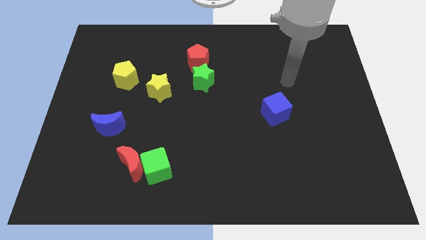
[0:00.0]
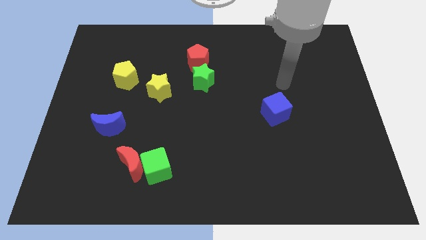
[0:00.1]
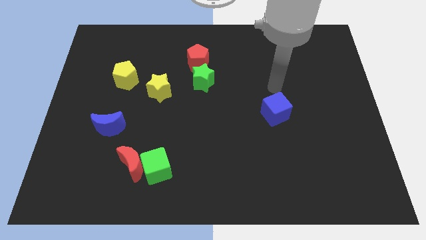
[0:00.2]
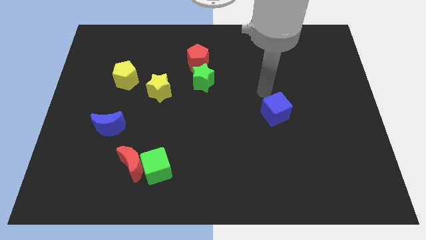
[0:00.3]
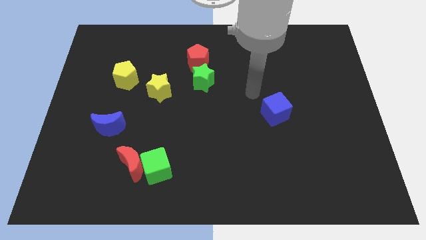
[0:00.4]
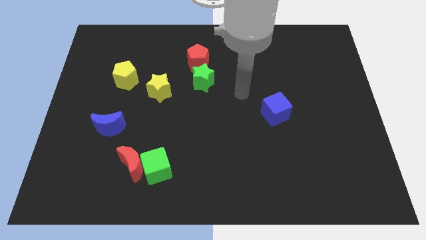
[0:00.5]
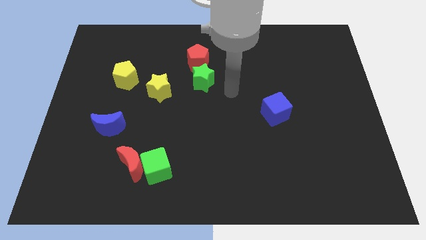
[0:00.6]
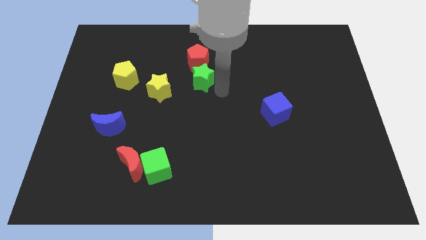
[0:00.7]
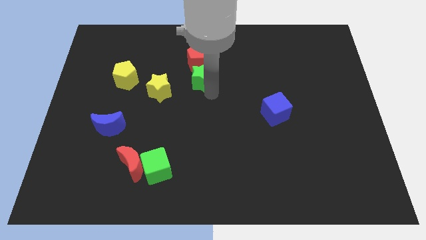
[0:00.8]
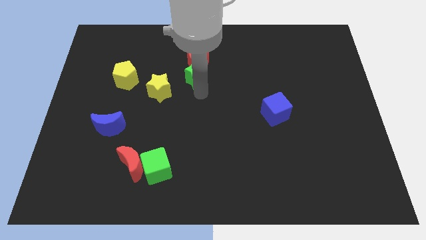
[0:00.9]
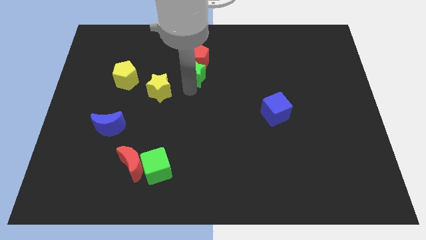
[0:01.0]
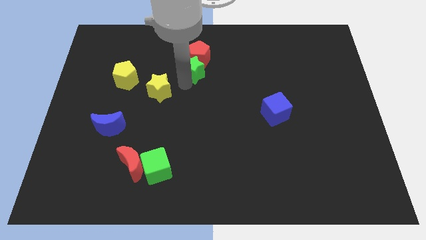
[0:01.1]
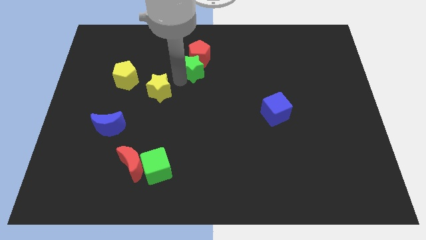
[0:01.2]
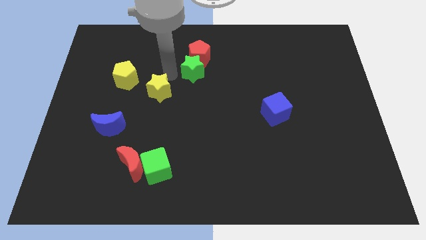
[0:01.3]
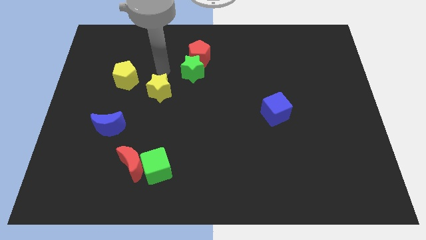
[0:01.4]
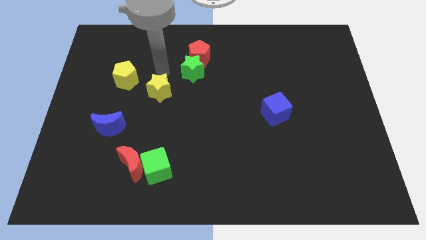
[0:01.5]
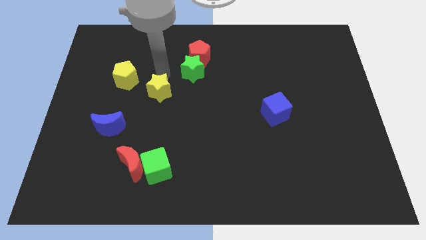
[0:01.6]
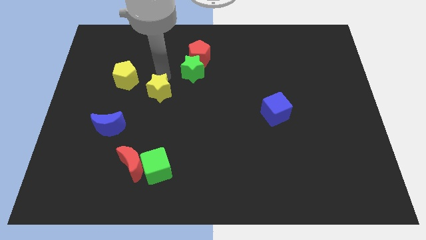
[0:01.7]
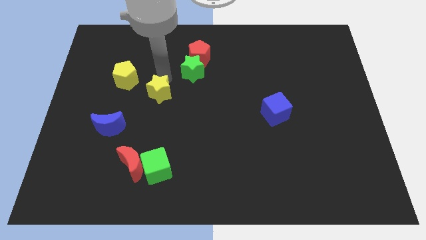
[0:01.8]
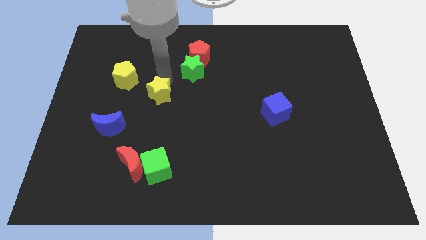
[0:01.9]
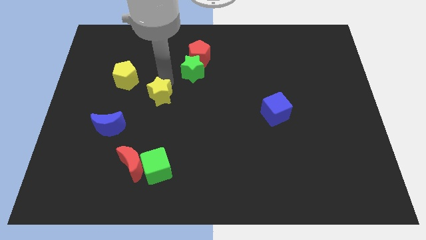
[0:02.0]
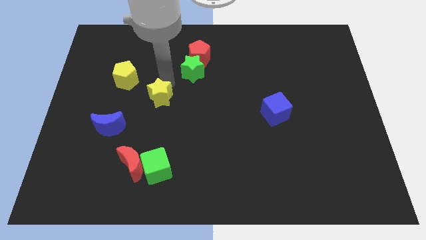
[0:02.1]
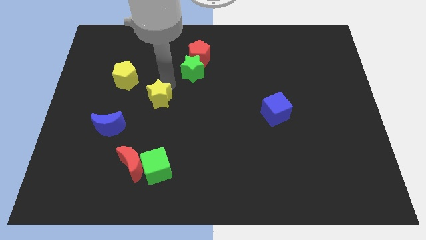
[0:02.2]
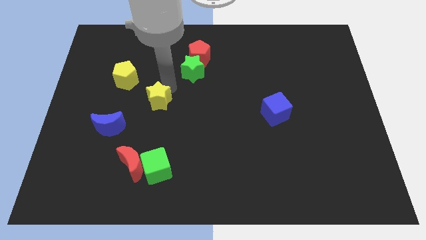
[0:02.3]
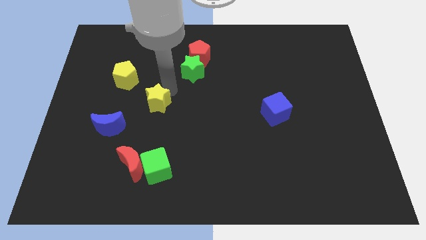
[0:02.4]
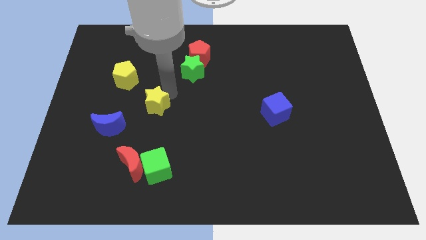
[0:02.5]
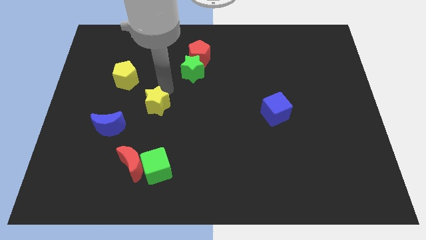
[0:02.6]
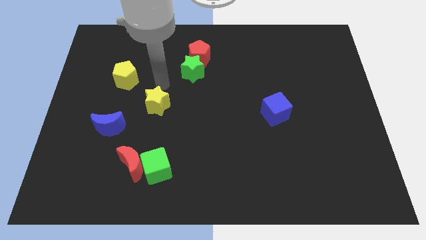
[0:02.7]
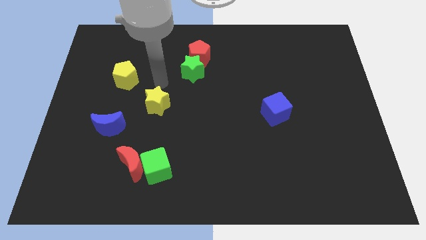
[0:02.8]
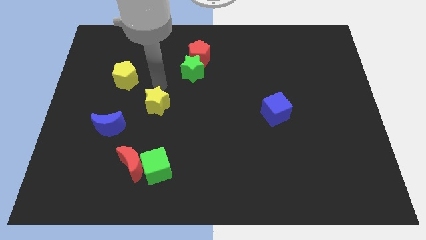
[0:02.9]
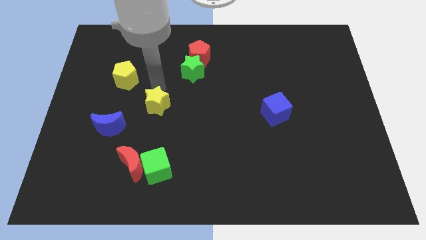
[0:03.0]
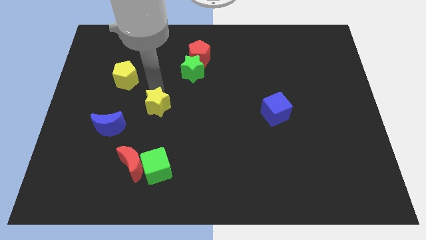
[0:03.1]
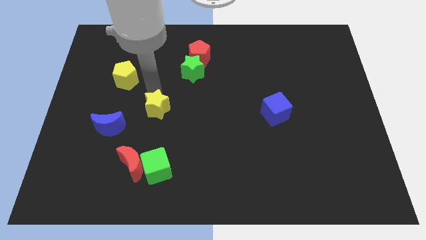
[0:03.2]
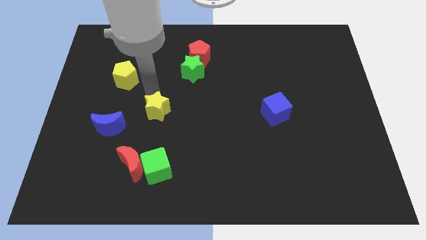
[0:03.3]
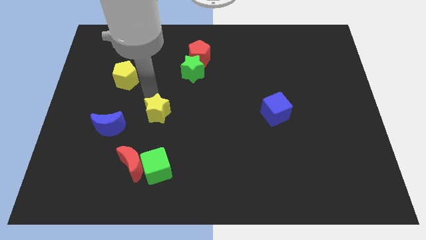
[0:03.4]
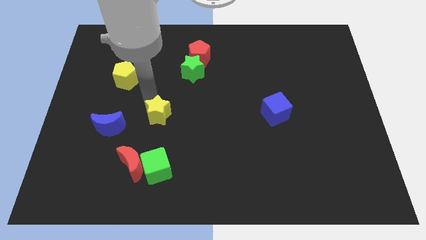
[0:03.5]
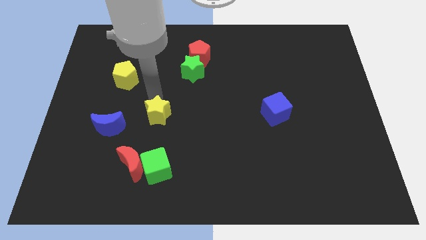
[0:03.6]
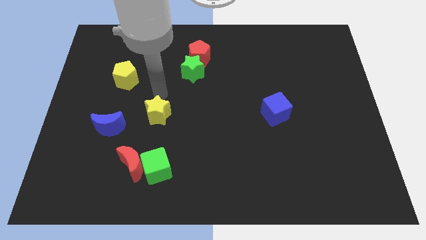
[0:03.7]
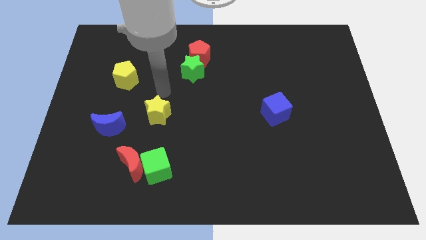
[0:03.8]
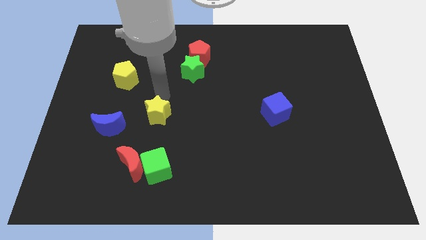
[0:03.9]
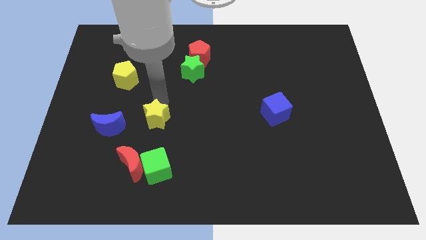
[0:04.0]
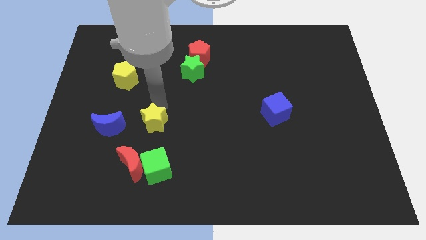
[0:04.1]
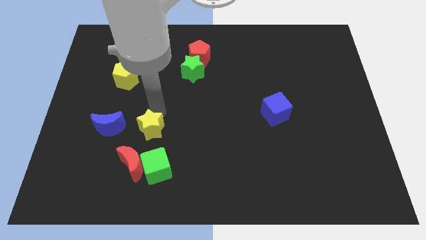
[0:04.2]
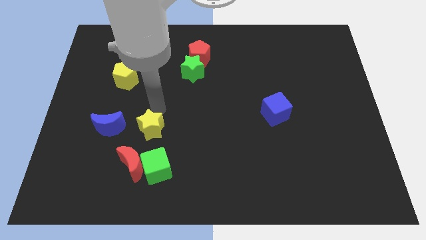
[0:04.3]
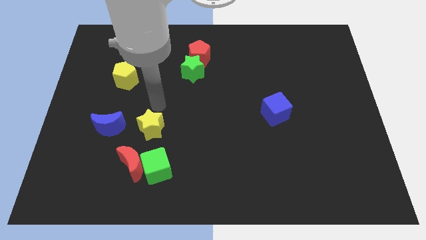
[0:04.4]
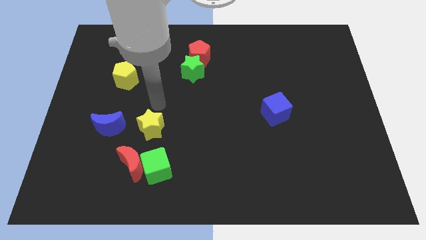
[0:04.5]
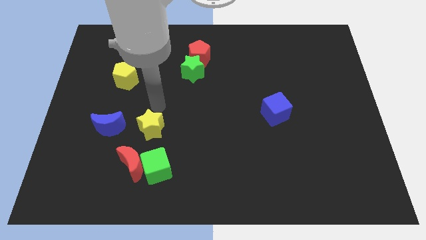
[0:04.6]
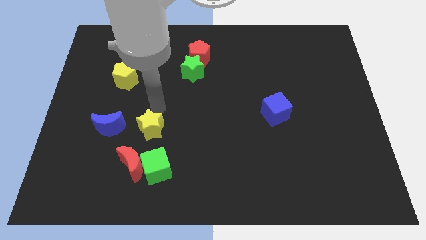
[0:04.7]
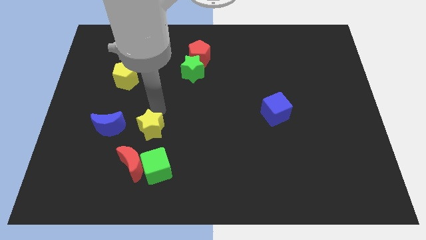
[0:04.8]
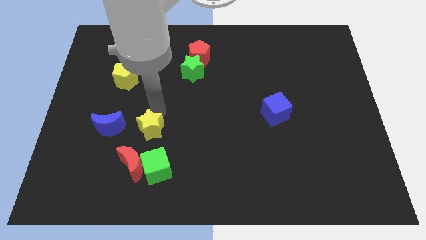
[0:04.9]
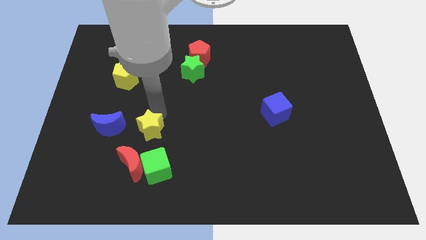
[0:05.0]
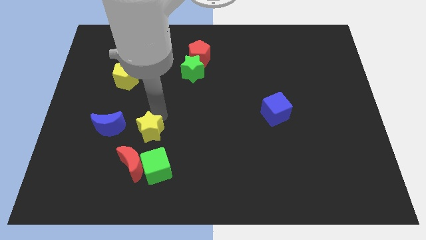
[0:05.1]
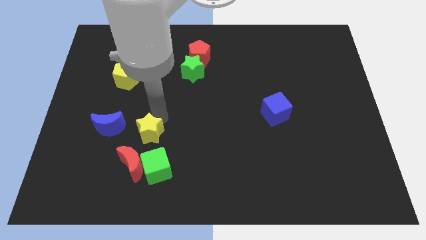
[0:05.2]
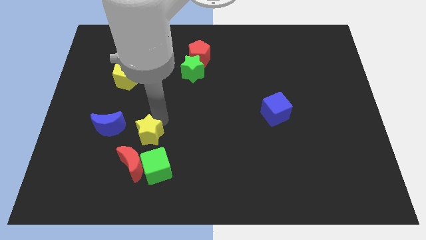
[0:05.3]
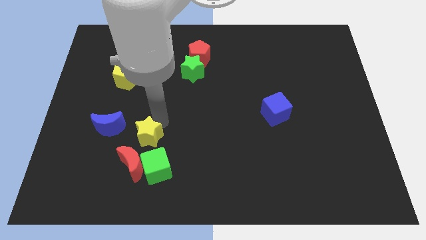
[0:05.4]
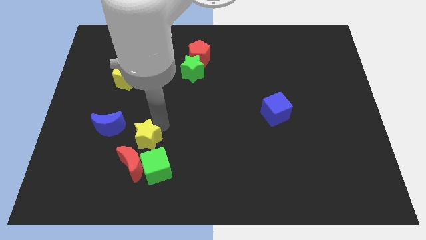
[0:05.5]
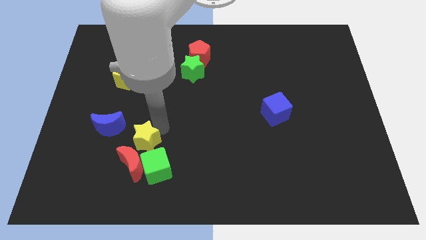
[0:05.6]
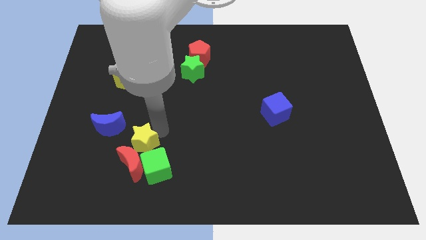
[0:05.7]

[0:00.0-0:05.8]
move the yellow star towards the red moon

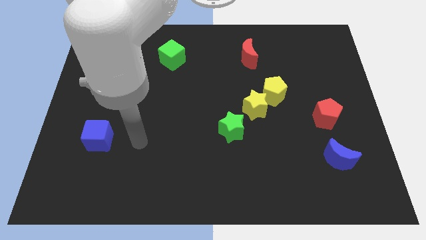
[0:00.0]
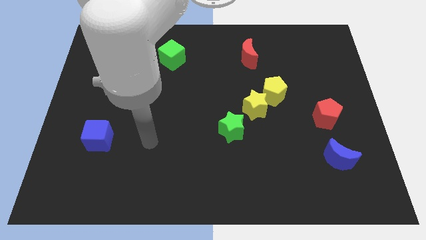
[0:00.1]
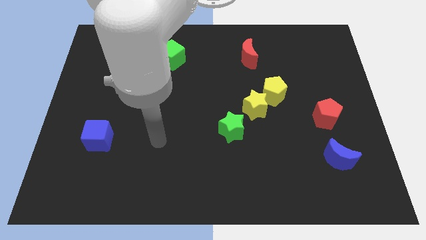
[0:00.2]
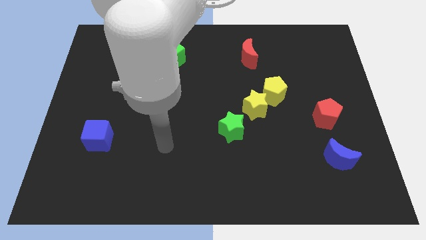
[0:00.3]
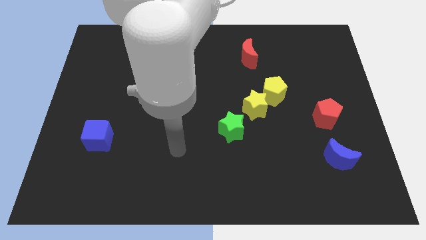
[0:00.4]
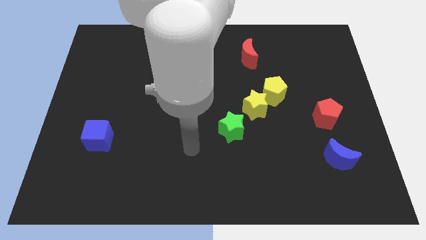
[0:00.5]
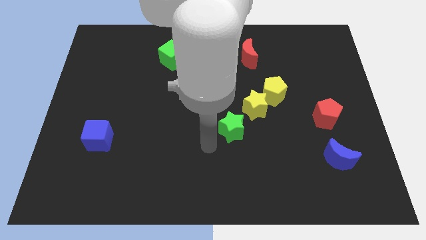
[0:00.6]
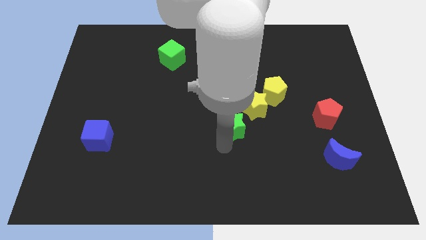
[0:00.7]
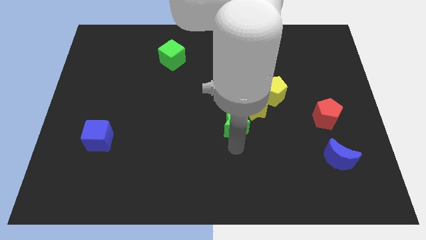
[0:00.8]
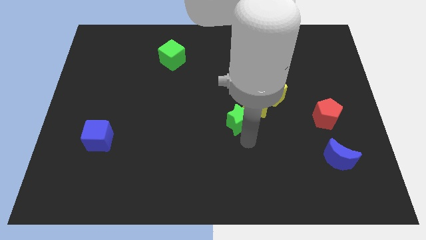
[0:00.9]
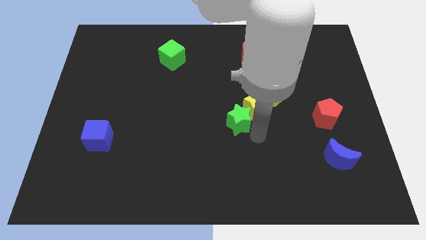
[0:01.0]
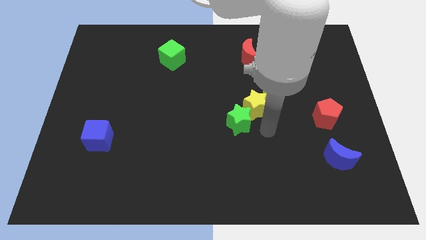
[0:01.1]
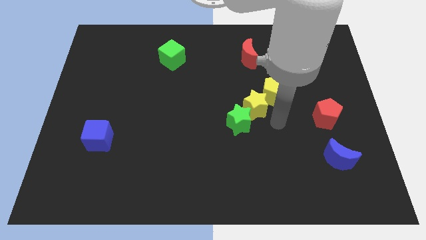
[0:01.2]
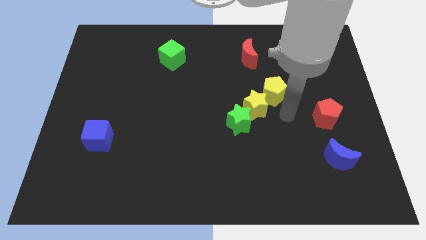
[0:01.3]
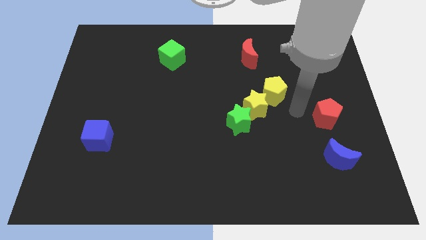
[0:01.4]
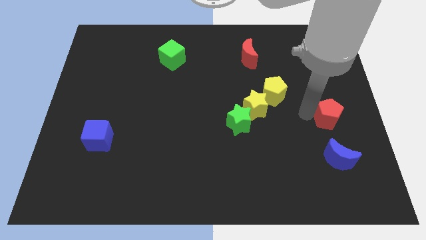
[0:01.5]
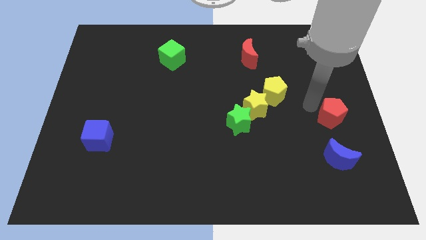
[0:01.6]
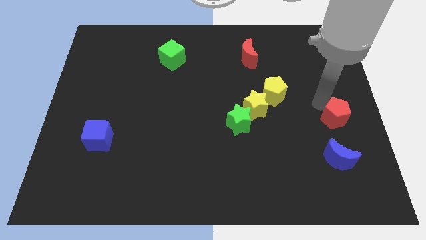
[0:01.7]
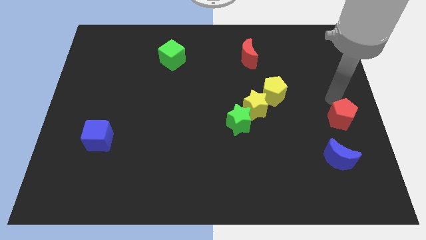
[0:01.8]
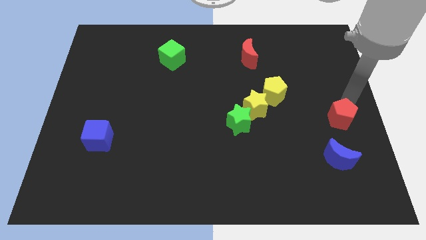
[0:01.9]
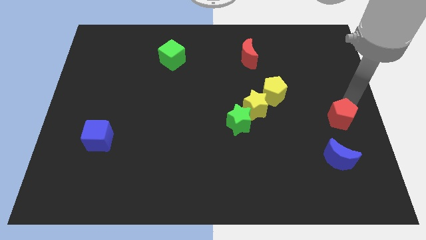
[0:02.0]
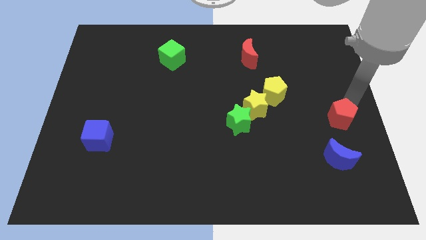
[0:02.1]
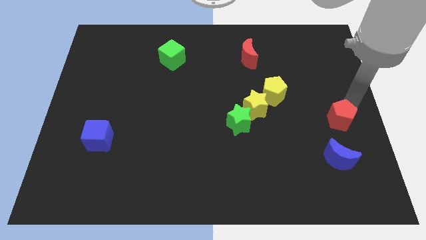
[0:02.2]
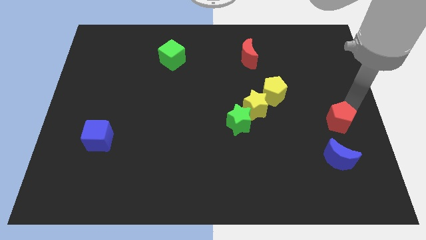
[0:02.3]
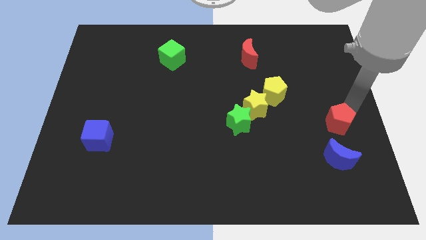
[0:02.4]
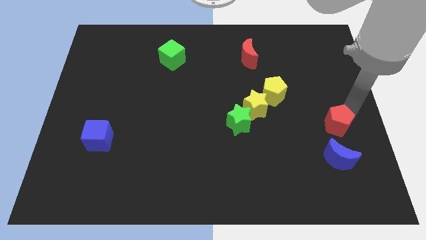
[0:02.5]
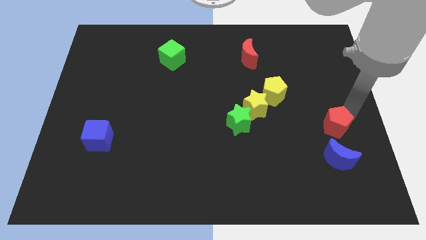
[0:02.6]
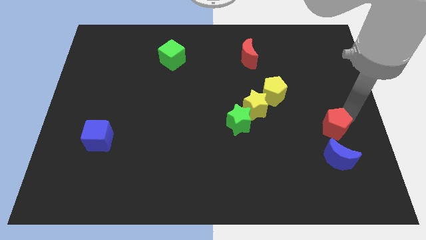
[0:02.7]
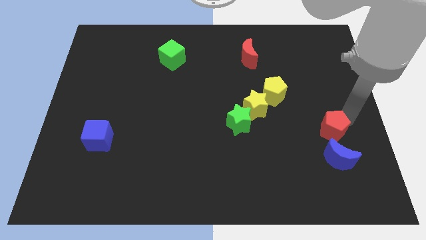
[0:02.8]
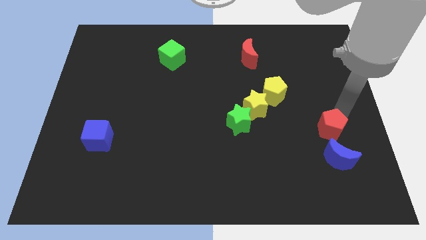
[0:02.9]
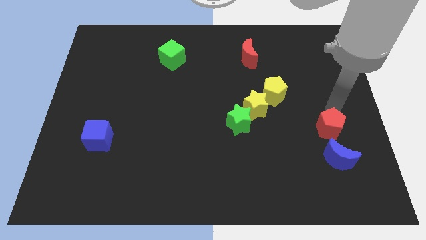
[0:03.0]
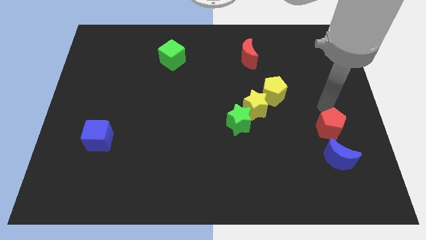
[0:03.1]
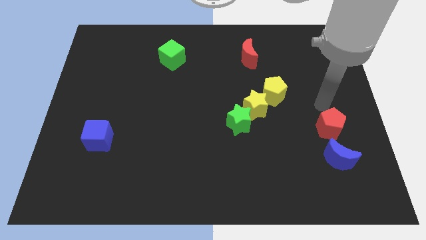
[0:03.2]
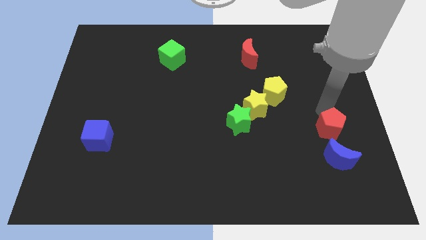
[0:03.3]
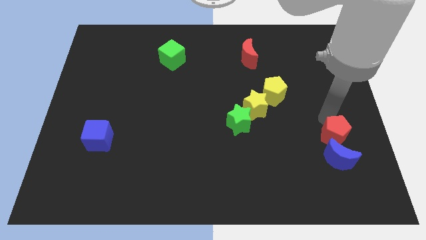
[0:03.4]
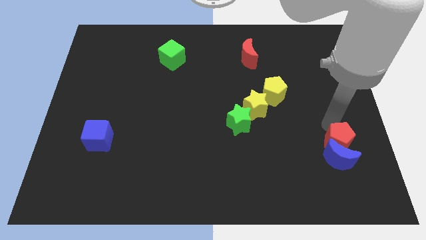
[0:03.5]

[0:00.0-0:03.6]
put the red pentagon towards the blue moon
